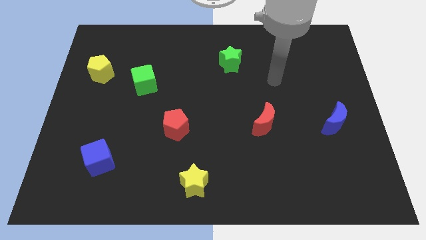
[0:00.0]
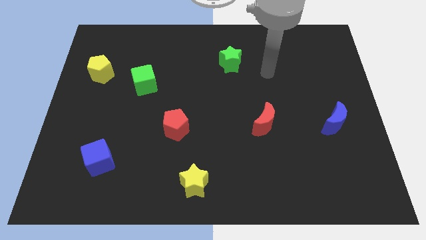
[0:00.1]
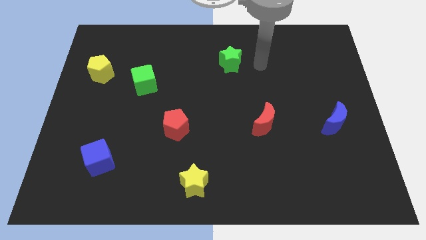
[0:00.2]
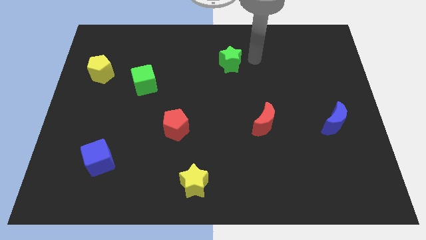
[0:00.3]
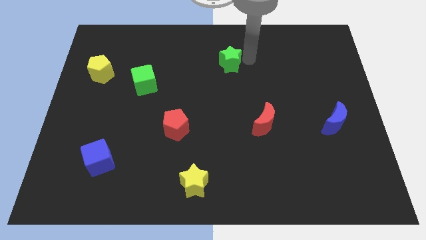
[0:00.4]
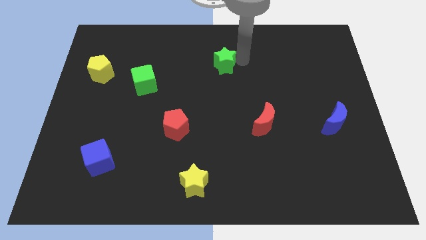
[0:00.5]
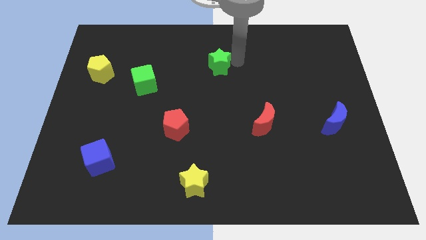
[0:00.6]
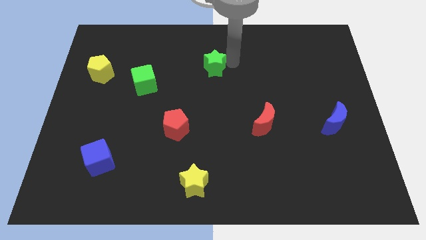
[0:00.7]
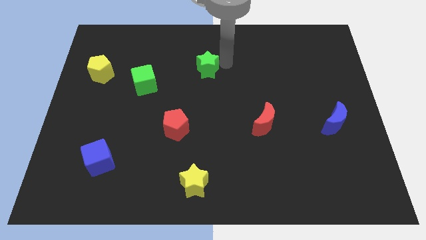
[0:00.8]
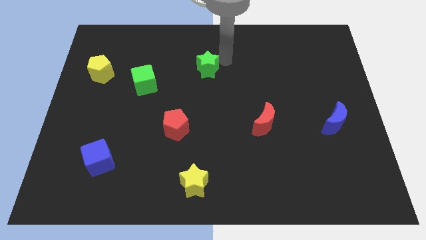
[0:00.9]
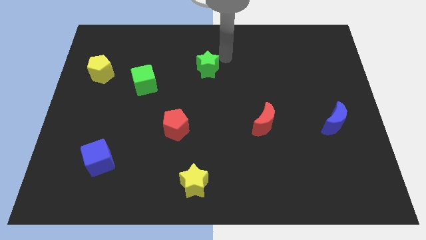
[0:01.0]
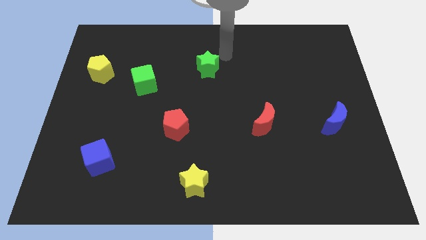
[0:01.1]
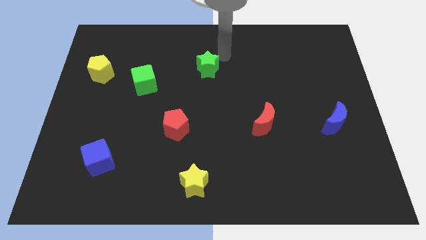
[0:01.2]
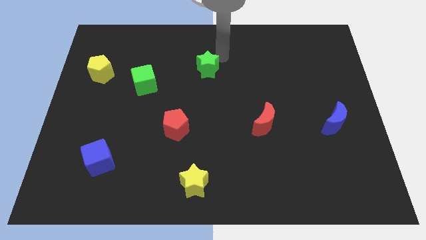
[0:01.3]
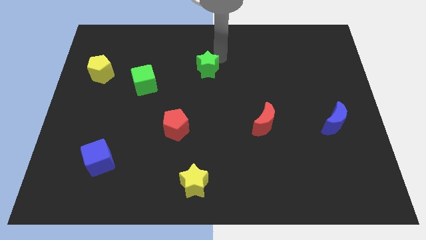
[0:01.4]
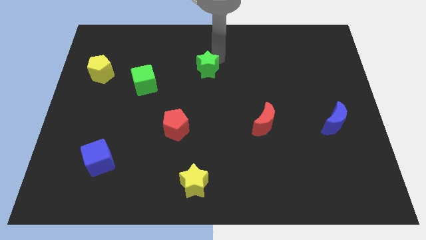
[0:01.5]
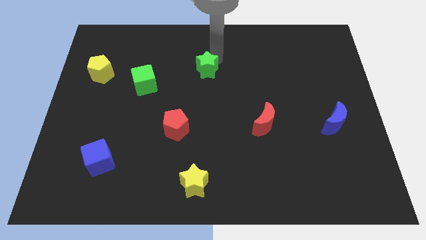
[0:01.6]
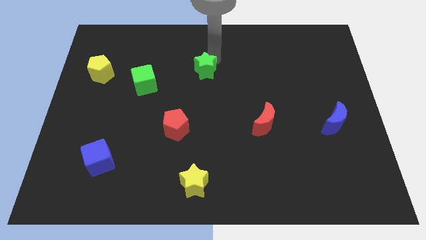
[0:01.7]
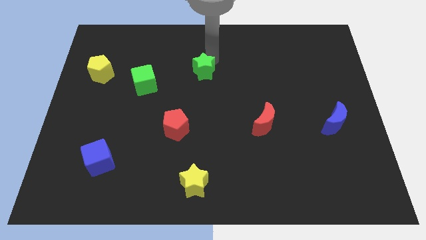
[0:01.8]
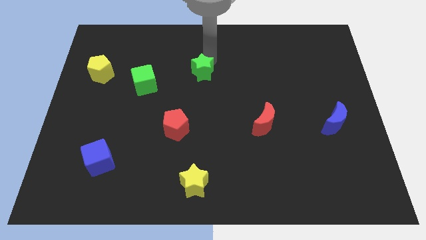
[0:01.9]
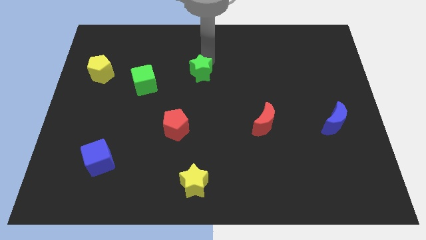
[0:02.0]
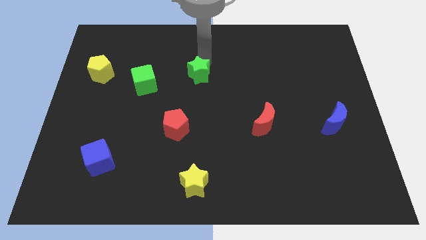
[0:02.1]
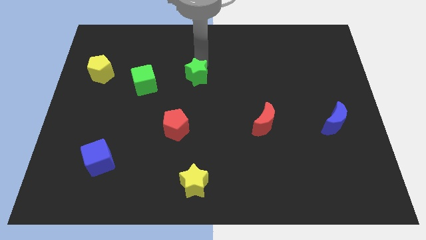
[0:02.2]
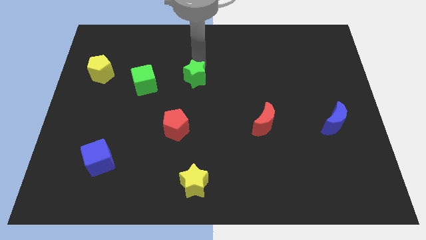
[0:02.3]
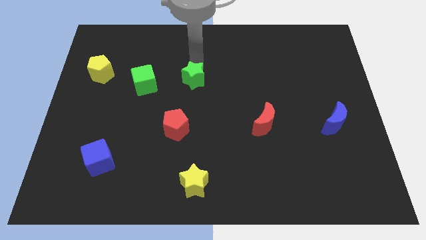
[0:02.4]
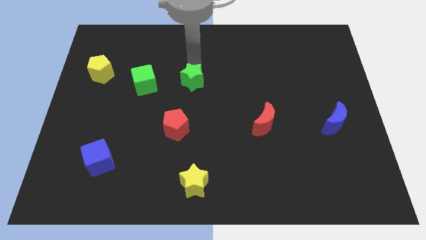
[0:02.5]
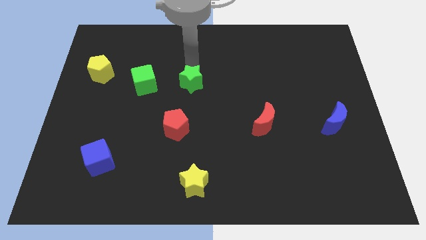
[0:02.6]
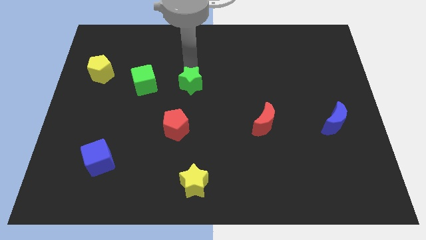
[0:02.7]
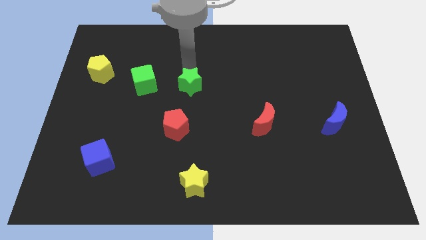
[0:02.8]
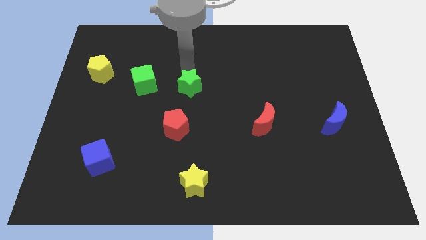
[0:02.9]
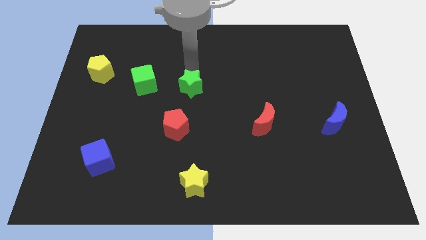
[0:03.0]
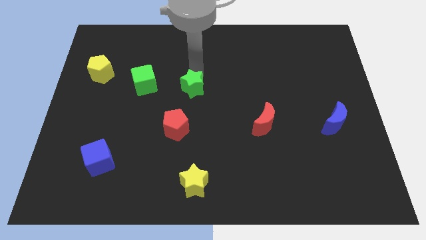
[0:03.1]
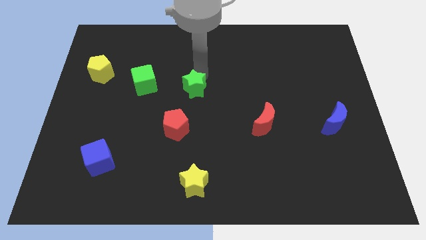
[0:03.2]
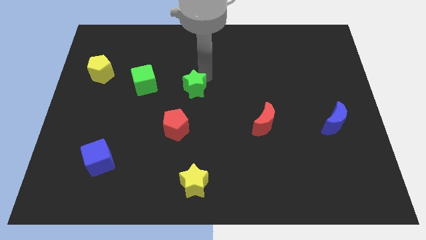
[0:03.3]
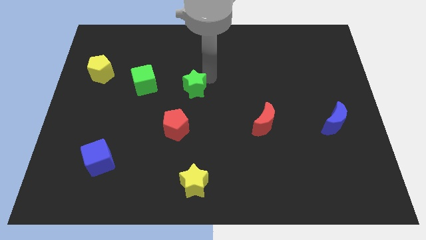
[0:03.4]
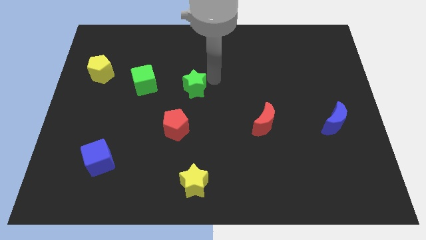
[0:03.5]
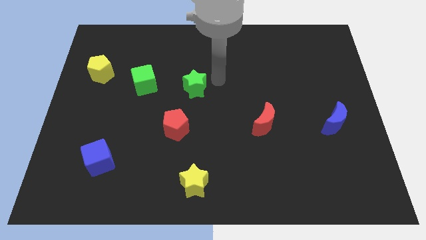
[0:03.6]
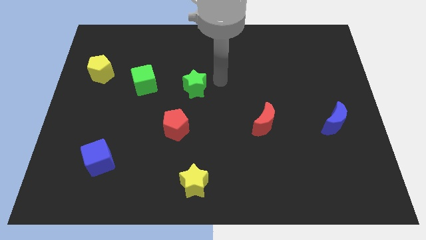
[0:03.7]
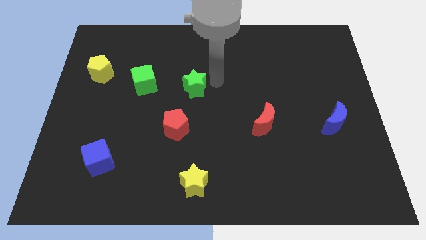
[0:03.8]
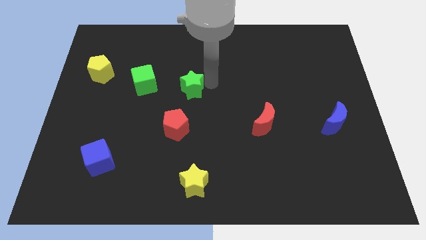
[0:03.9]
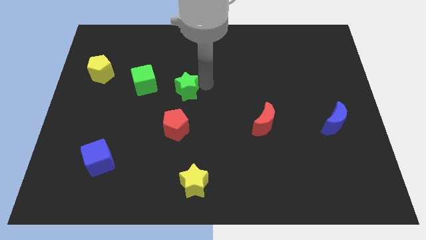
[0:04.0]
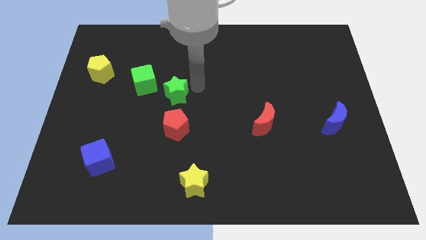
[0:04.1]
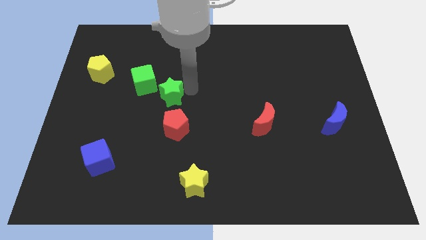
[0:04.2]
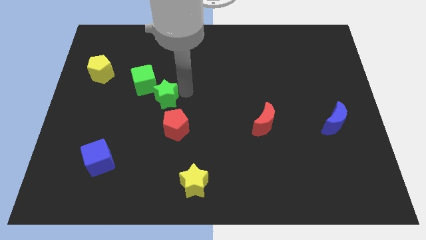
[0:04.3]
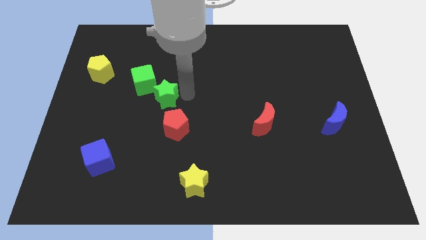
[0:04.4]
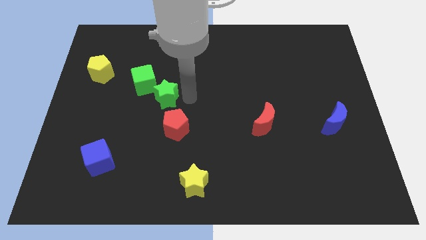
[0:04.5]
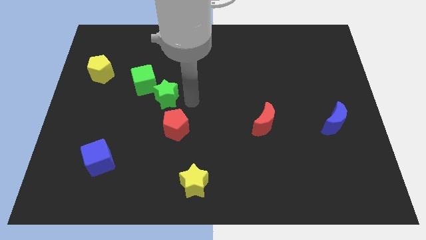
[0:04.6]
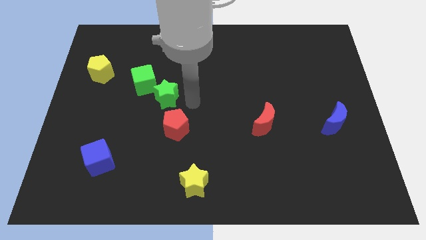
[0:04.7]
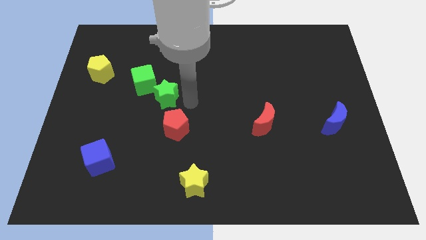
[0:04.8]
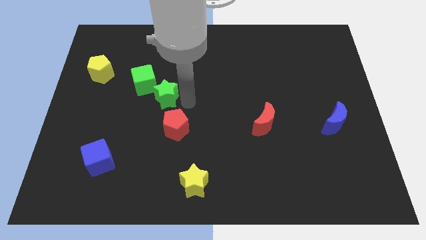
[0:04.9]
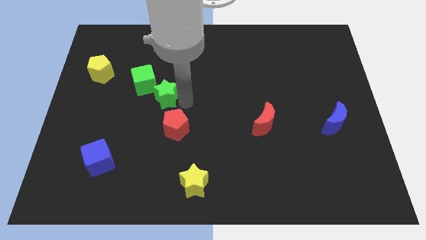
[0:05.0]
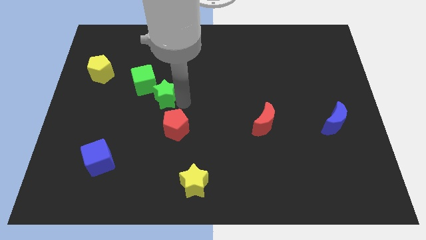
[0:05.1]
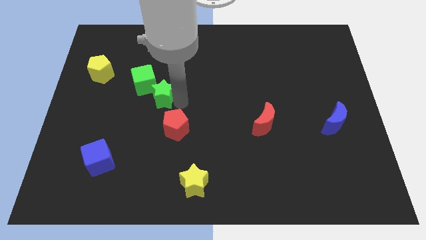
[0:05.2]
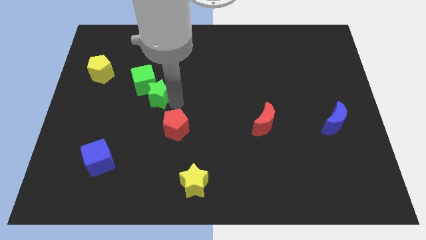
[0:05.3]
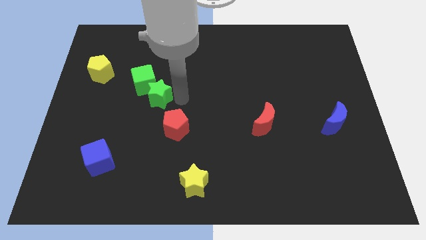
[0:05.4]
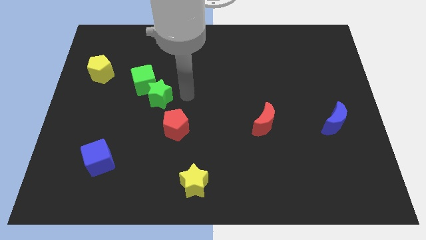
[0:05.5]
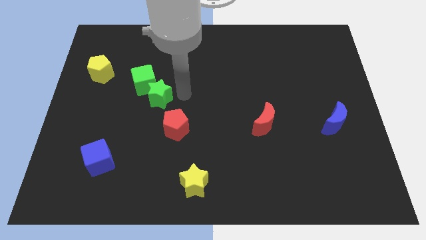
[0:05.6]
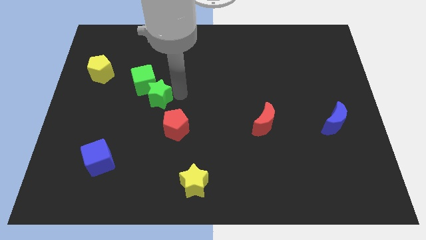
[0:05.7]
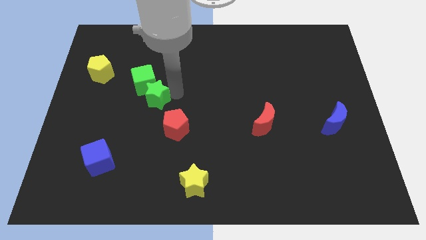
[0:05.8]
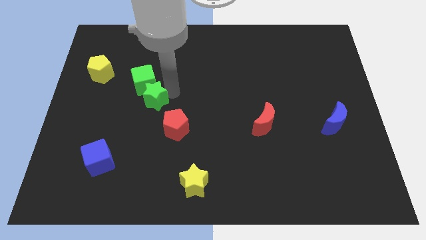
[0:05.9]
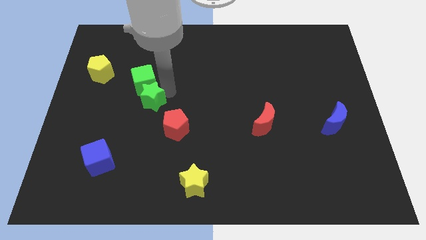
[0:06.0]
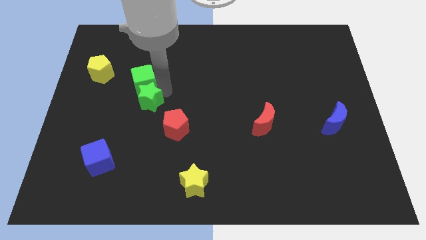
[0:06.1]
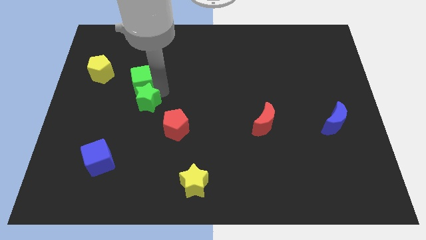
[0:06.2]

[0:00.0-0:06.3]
move the green star diagonally down and to the left of the green cube
